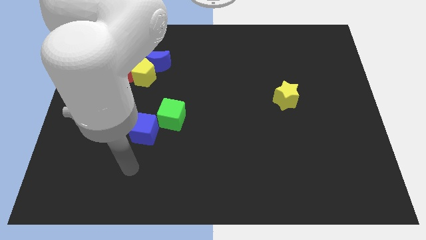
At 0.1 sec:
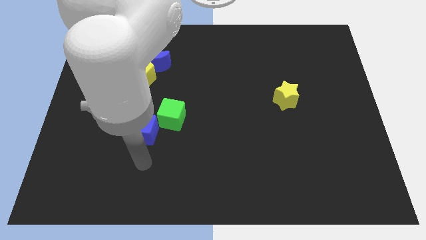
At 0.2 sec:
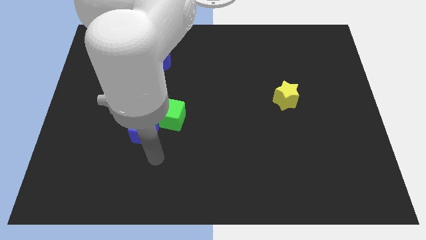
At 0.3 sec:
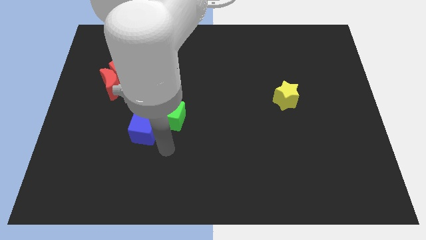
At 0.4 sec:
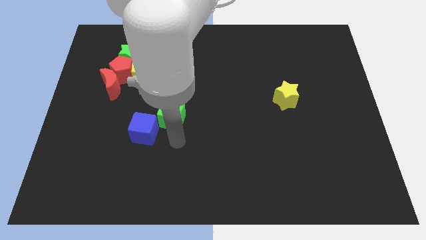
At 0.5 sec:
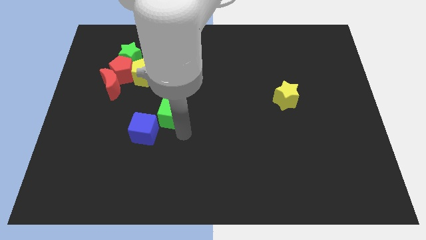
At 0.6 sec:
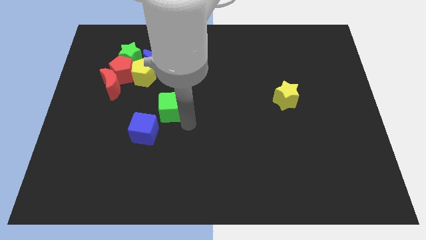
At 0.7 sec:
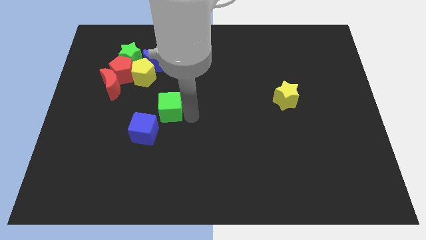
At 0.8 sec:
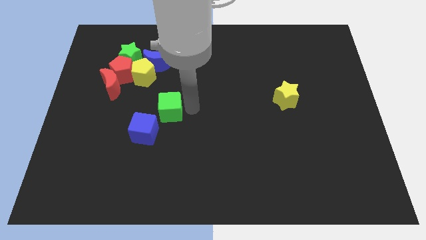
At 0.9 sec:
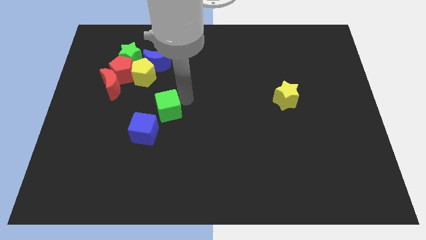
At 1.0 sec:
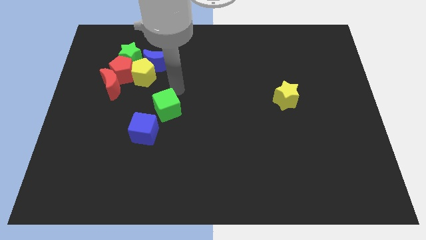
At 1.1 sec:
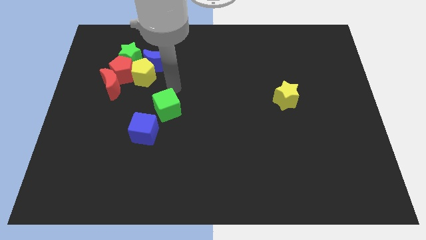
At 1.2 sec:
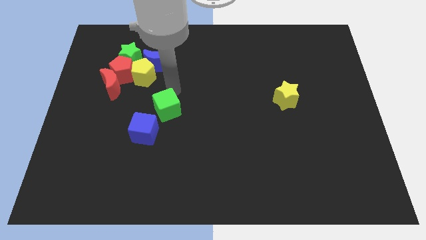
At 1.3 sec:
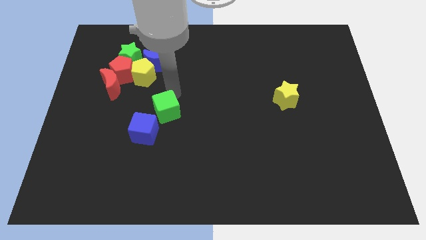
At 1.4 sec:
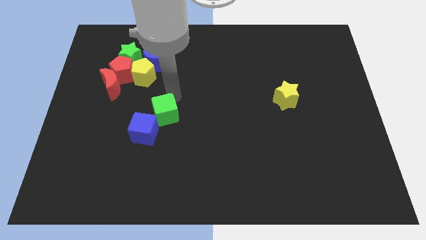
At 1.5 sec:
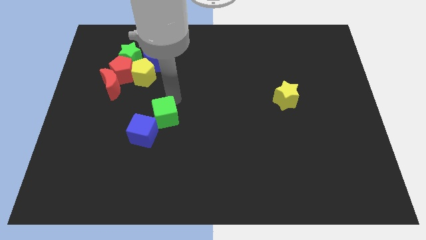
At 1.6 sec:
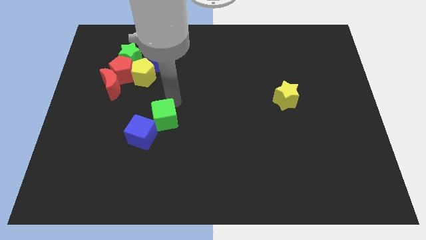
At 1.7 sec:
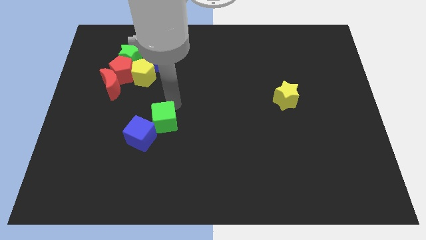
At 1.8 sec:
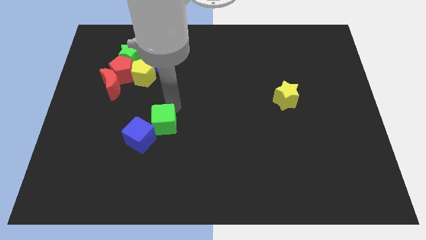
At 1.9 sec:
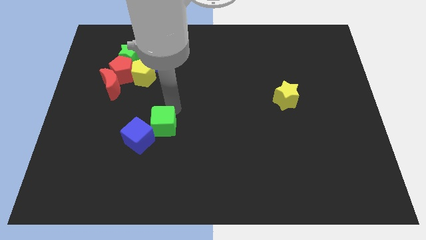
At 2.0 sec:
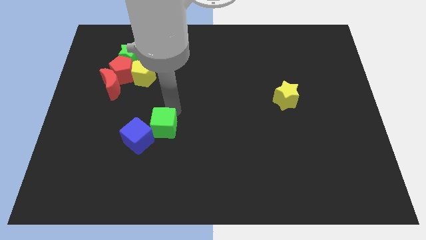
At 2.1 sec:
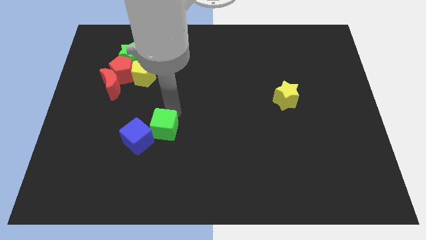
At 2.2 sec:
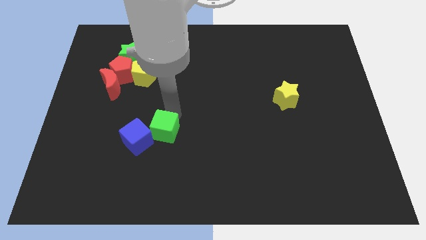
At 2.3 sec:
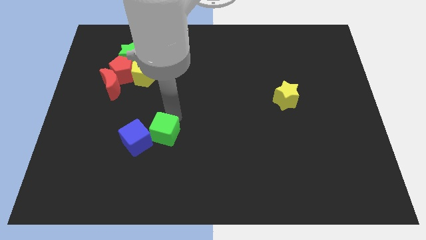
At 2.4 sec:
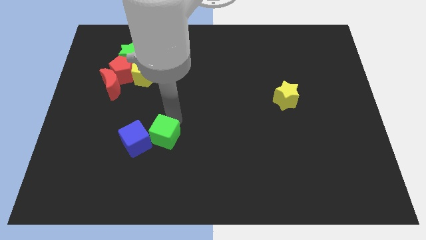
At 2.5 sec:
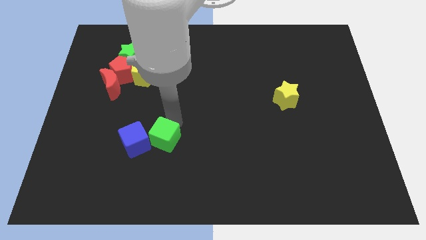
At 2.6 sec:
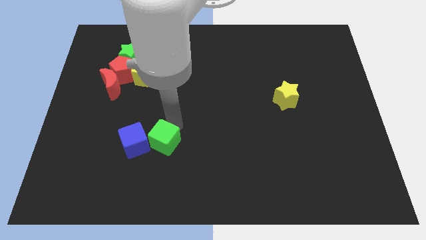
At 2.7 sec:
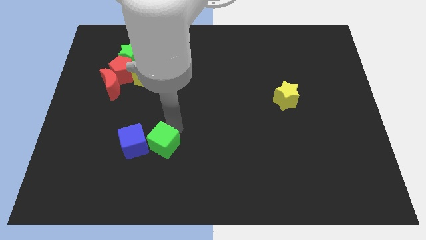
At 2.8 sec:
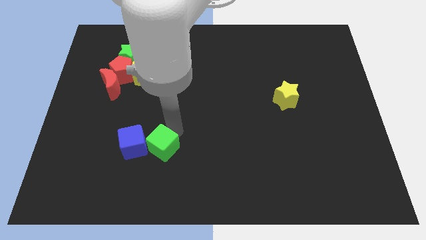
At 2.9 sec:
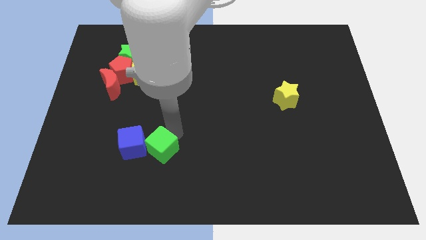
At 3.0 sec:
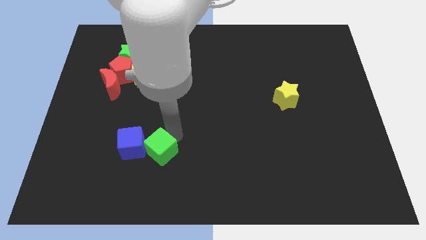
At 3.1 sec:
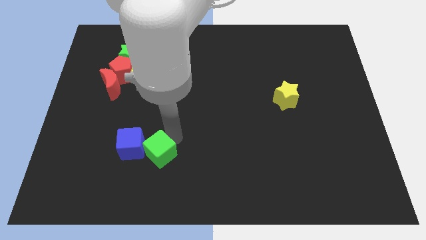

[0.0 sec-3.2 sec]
push the green cube down and left diagonally a little

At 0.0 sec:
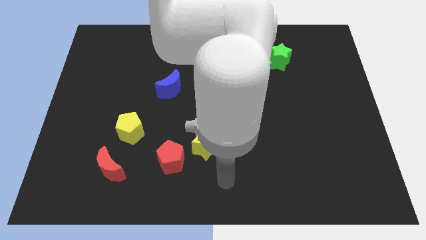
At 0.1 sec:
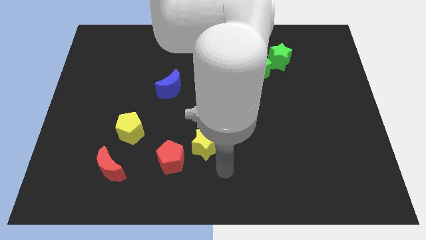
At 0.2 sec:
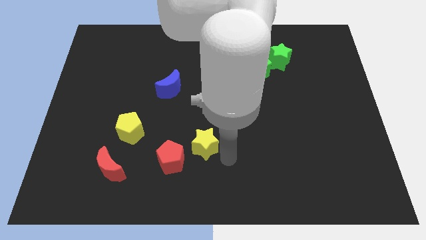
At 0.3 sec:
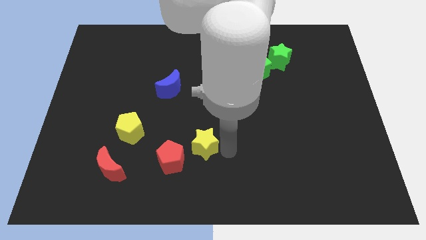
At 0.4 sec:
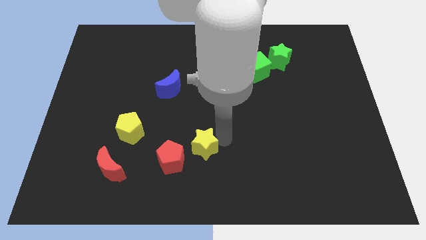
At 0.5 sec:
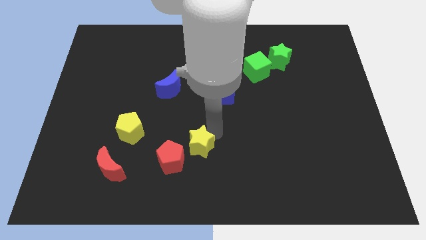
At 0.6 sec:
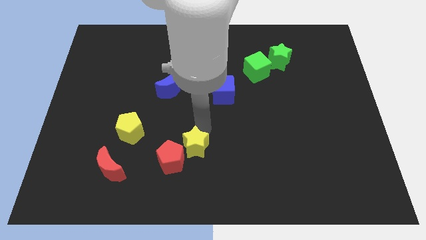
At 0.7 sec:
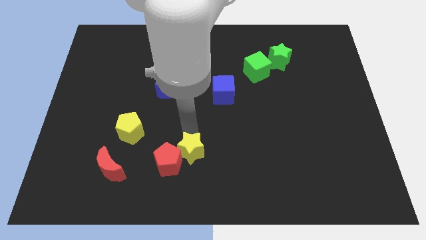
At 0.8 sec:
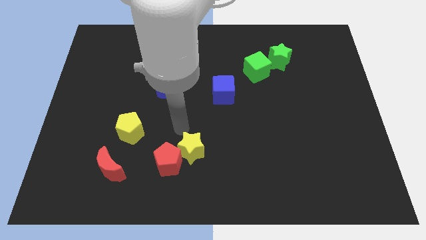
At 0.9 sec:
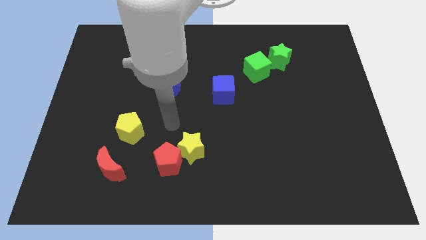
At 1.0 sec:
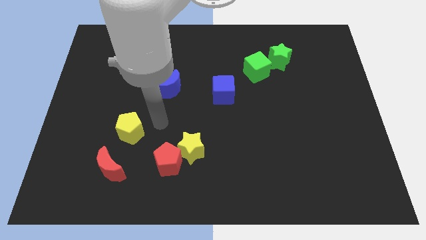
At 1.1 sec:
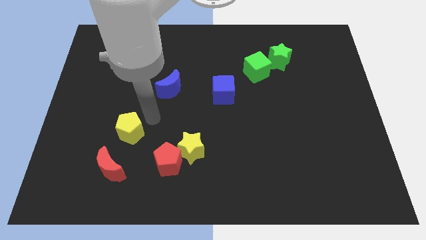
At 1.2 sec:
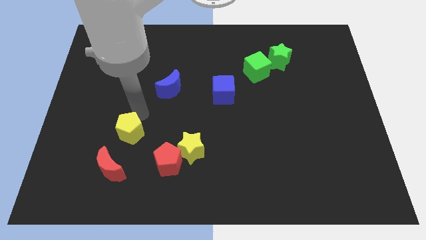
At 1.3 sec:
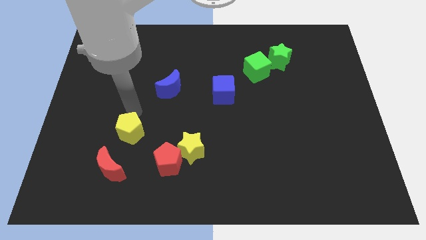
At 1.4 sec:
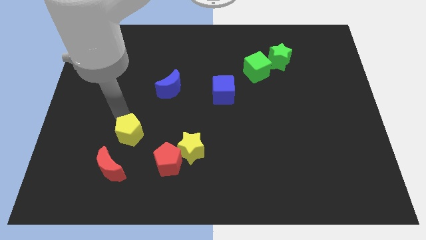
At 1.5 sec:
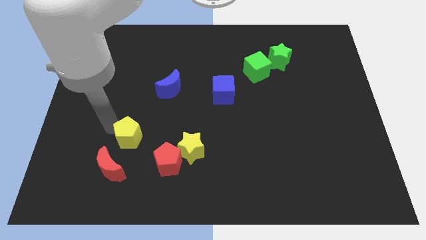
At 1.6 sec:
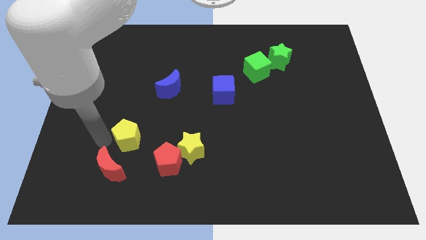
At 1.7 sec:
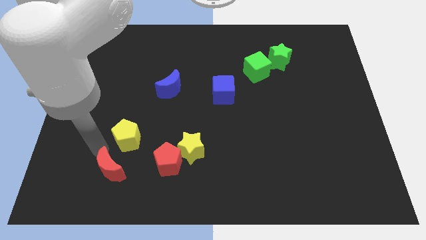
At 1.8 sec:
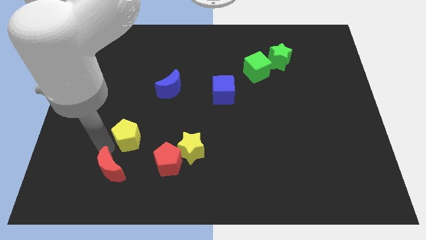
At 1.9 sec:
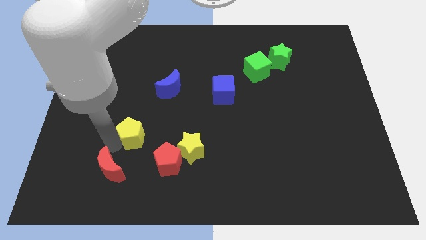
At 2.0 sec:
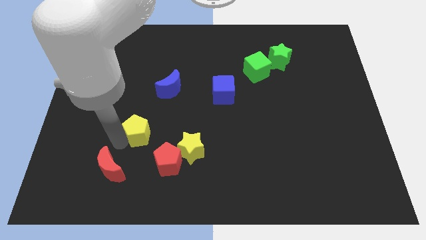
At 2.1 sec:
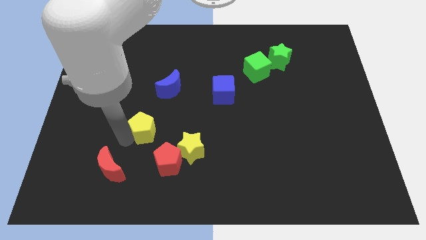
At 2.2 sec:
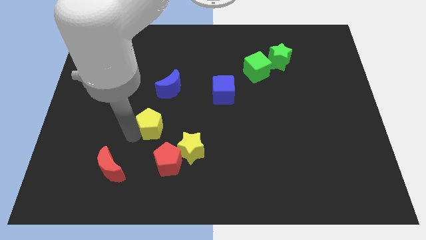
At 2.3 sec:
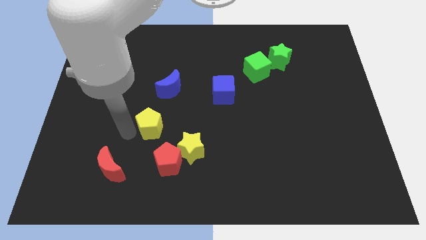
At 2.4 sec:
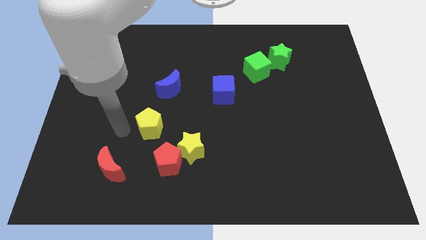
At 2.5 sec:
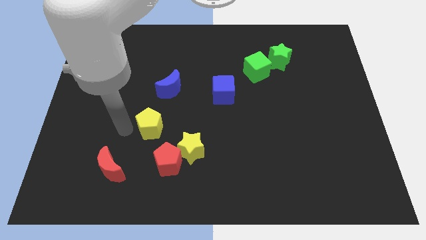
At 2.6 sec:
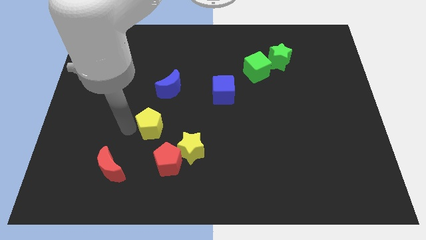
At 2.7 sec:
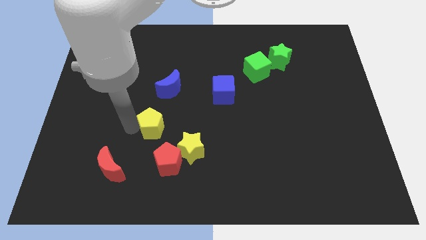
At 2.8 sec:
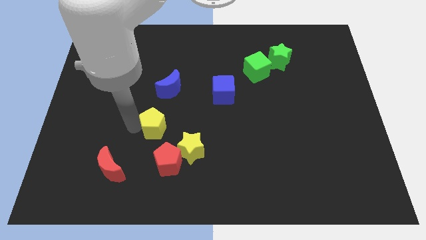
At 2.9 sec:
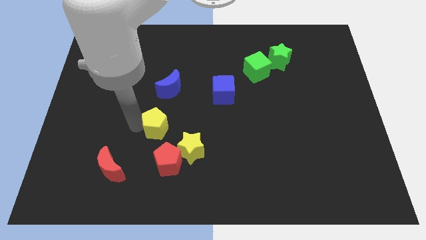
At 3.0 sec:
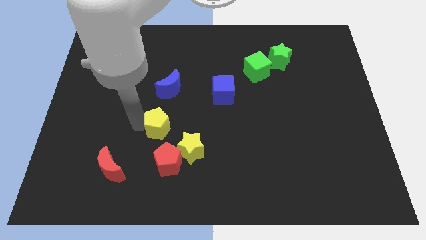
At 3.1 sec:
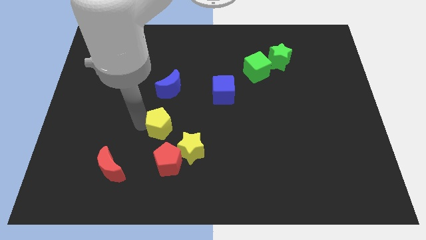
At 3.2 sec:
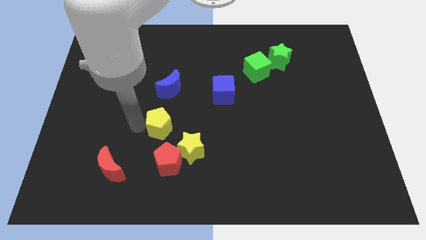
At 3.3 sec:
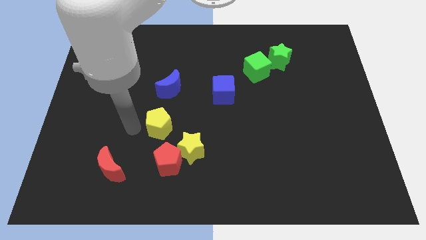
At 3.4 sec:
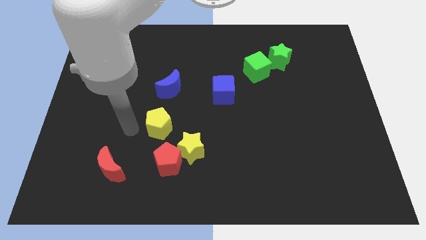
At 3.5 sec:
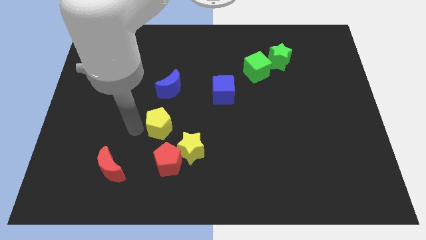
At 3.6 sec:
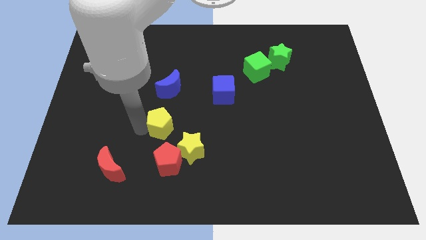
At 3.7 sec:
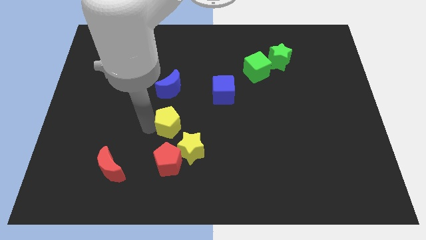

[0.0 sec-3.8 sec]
slide the yellow pentagon to the right slightly

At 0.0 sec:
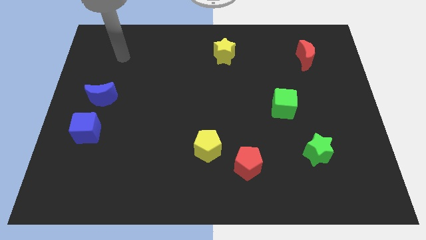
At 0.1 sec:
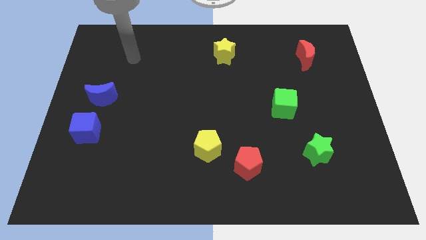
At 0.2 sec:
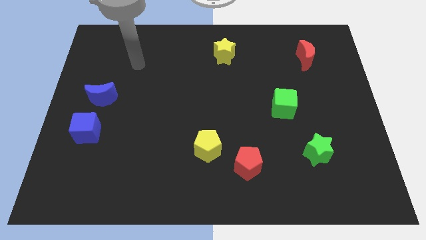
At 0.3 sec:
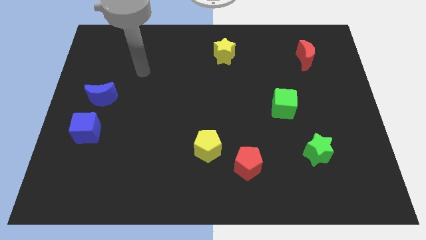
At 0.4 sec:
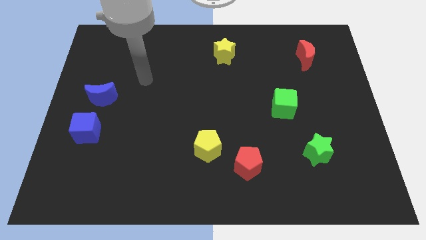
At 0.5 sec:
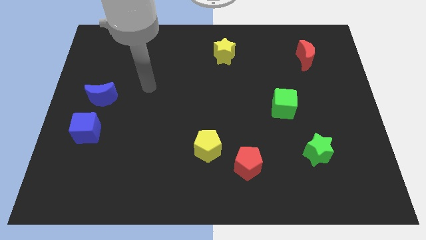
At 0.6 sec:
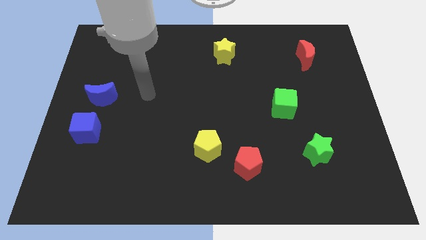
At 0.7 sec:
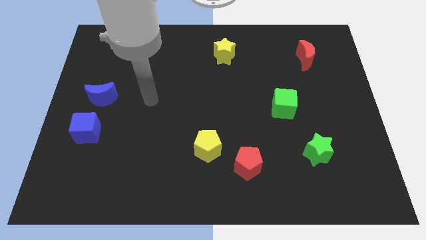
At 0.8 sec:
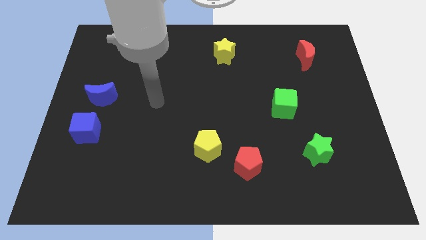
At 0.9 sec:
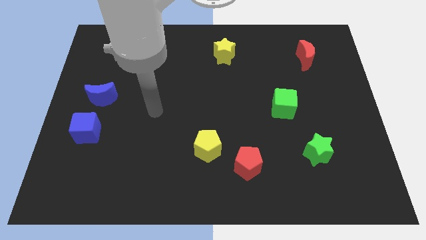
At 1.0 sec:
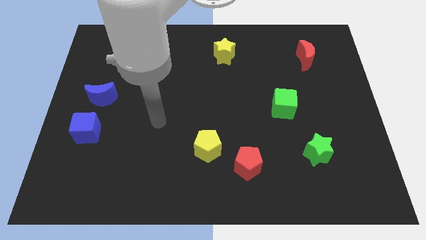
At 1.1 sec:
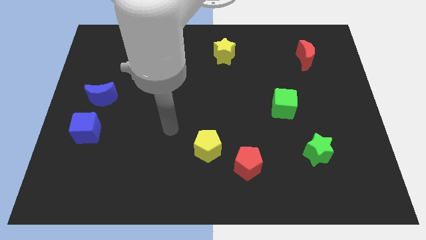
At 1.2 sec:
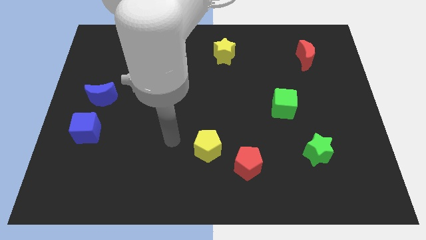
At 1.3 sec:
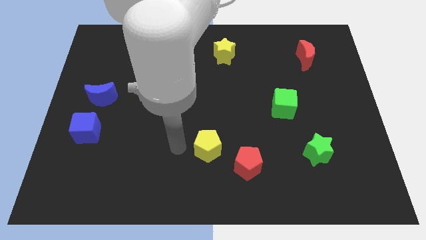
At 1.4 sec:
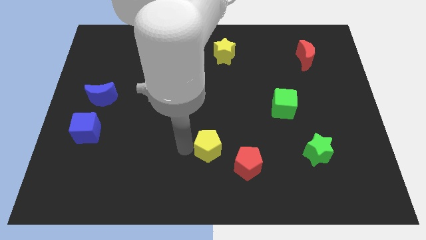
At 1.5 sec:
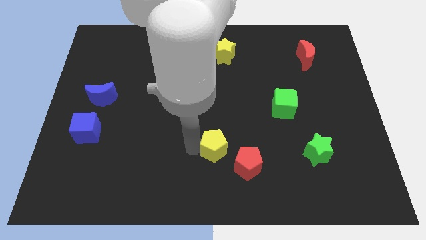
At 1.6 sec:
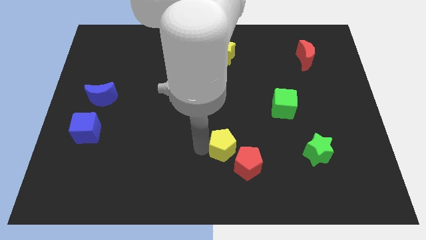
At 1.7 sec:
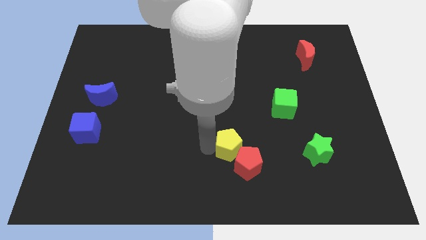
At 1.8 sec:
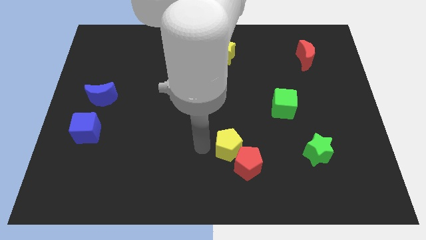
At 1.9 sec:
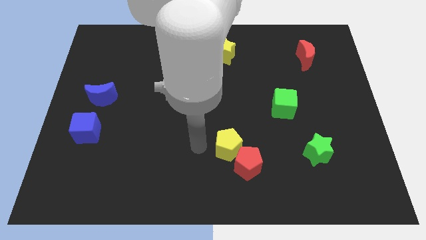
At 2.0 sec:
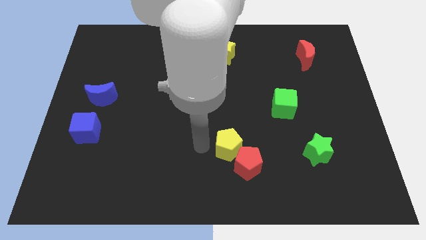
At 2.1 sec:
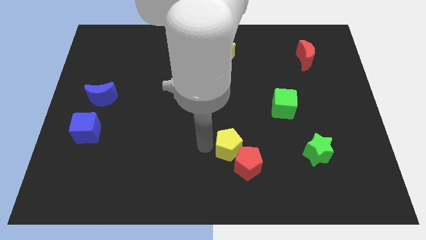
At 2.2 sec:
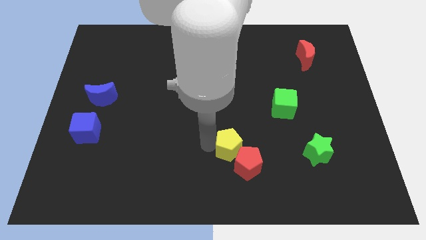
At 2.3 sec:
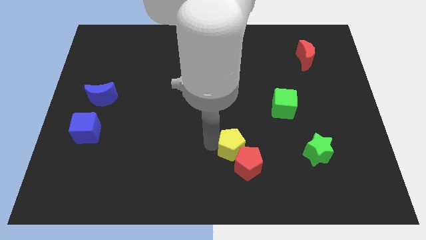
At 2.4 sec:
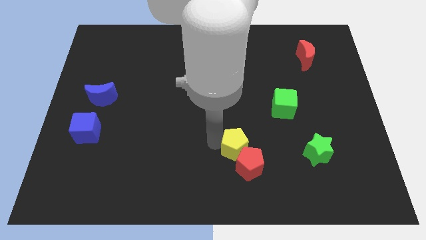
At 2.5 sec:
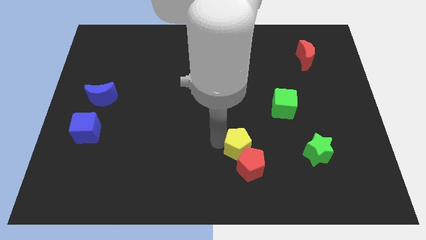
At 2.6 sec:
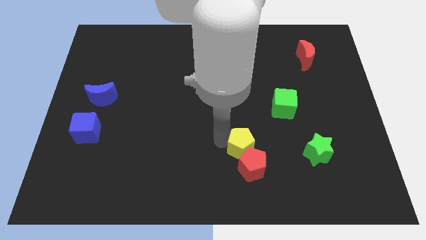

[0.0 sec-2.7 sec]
slightly move the yellow pentagon to the right
